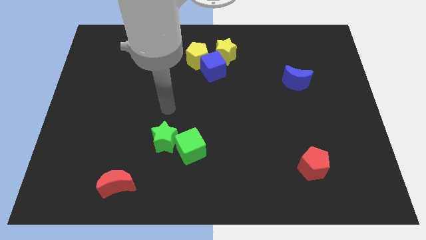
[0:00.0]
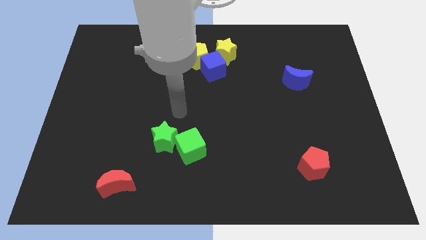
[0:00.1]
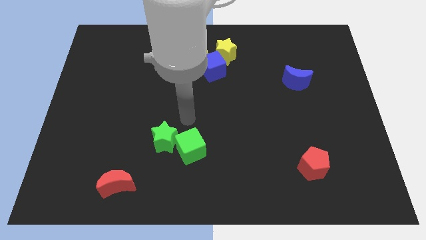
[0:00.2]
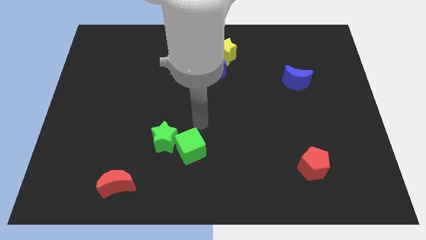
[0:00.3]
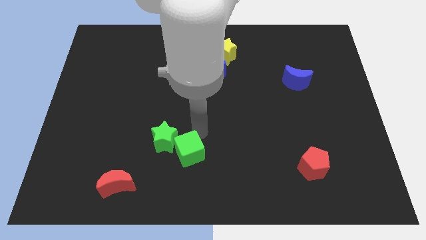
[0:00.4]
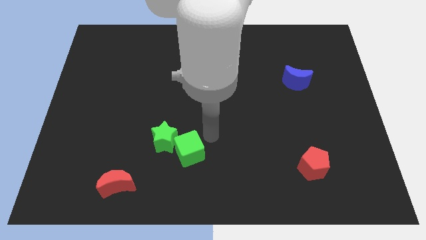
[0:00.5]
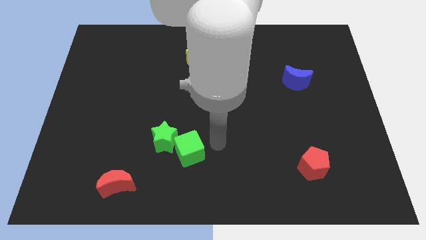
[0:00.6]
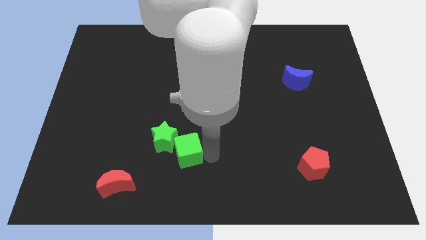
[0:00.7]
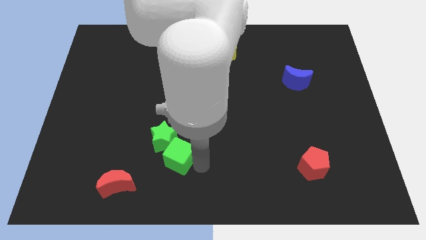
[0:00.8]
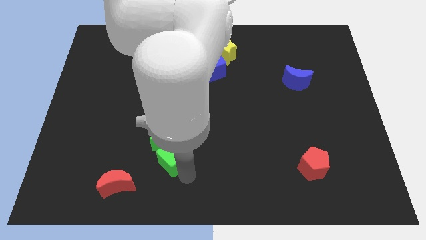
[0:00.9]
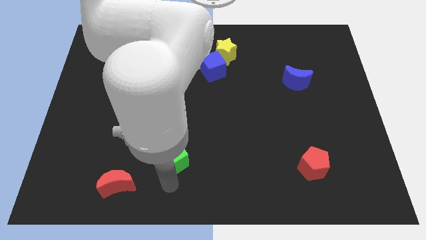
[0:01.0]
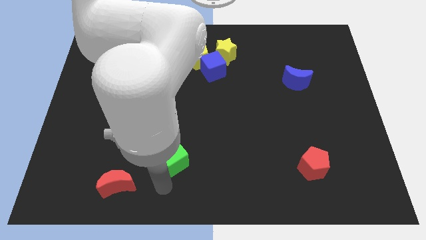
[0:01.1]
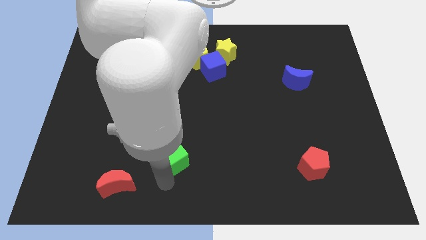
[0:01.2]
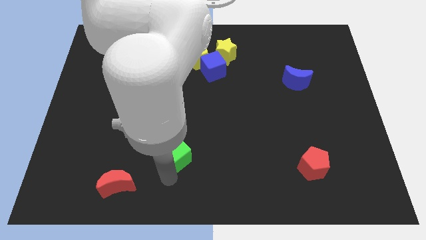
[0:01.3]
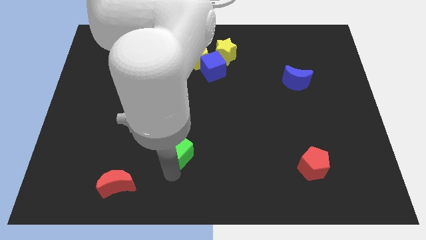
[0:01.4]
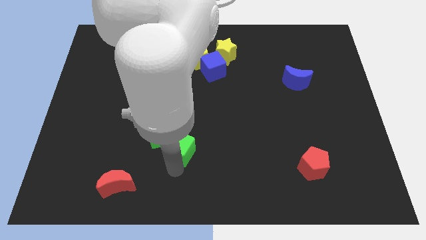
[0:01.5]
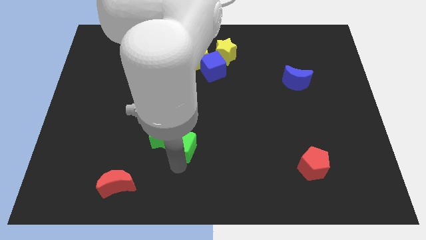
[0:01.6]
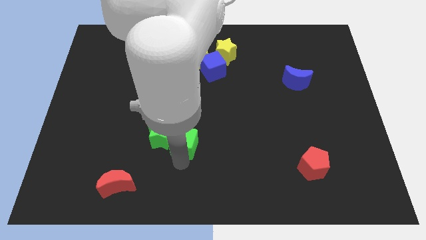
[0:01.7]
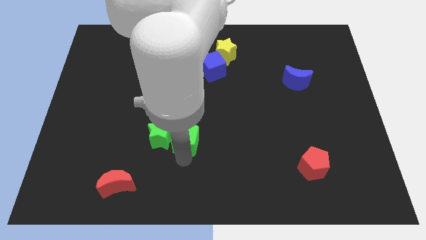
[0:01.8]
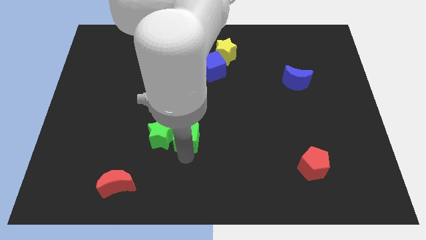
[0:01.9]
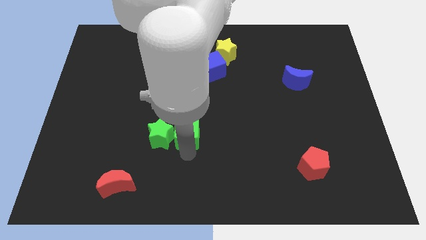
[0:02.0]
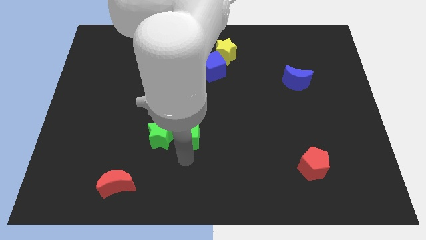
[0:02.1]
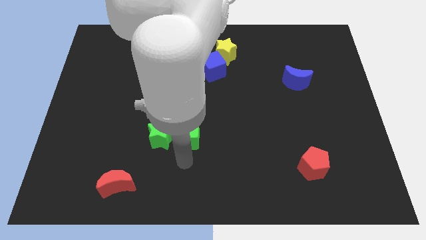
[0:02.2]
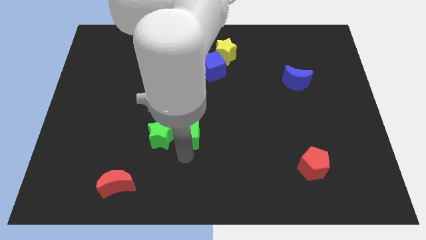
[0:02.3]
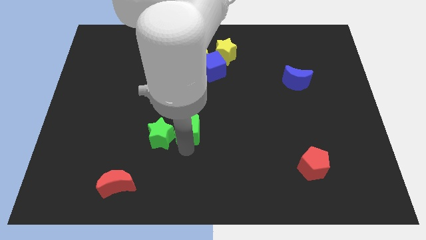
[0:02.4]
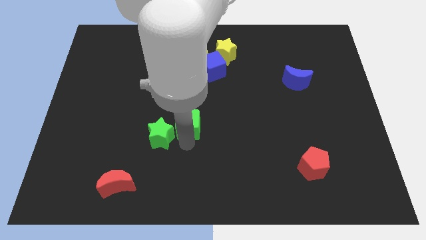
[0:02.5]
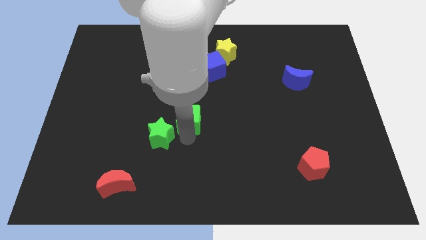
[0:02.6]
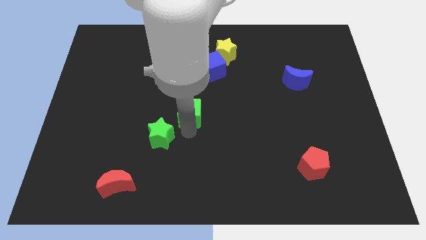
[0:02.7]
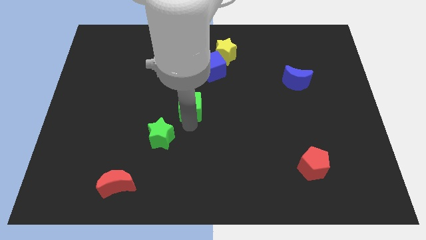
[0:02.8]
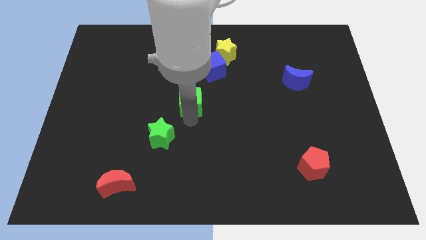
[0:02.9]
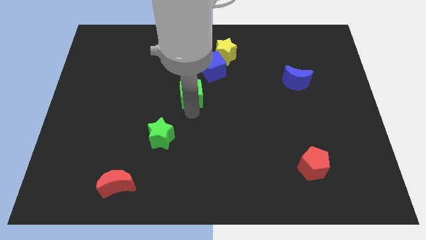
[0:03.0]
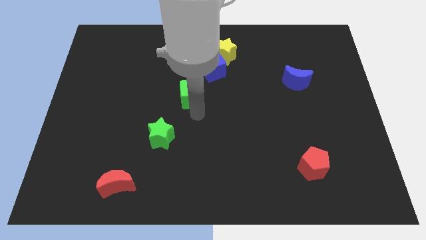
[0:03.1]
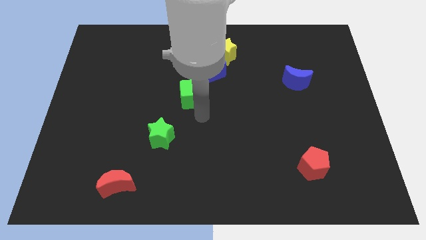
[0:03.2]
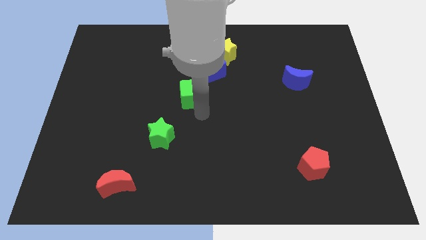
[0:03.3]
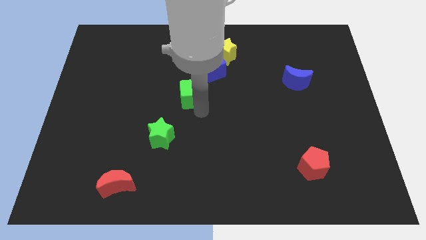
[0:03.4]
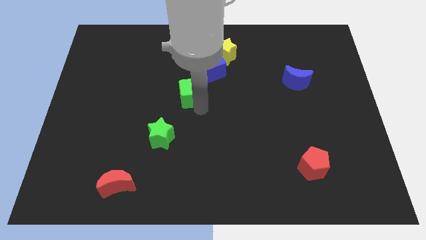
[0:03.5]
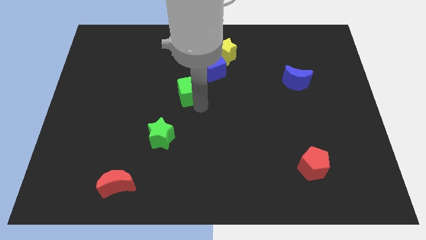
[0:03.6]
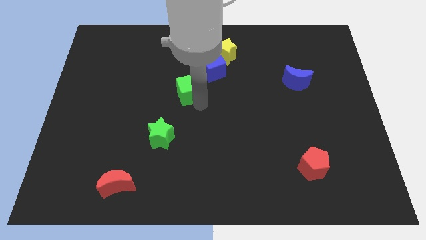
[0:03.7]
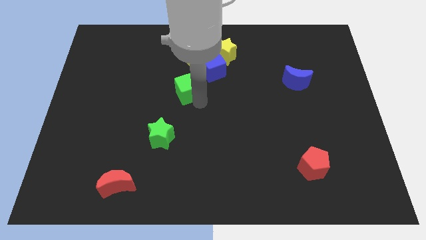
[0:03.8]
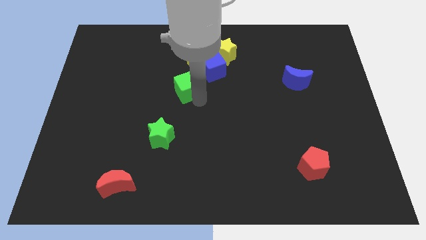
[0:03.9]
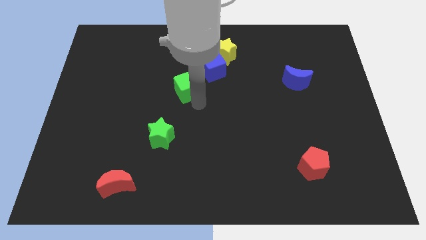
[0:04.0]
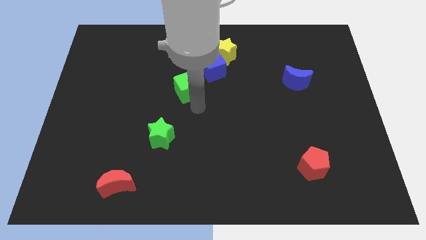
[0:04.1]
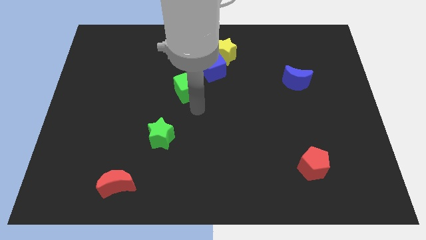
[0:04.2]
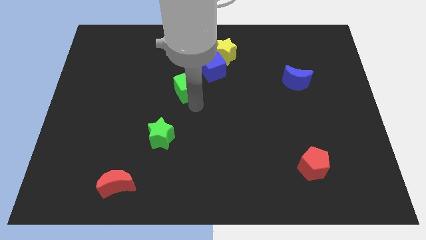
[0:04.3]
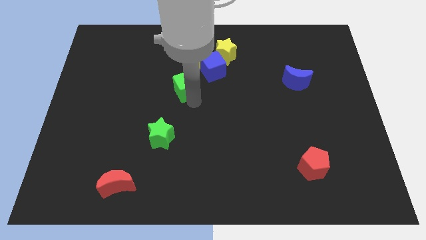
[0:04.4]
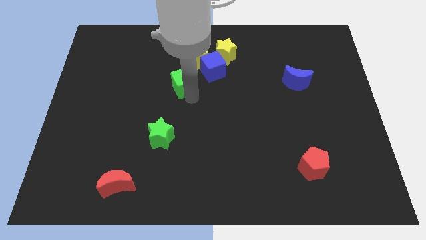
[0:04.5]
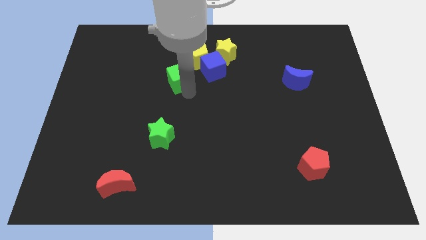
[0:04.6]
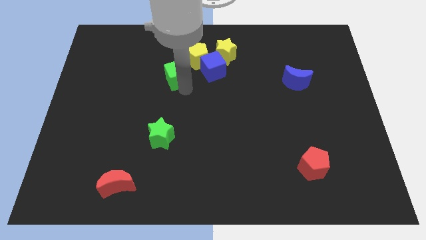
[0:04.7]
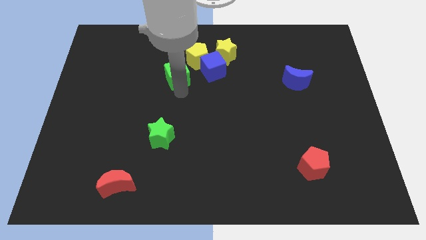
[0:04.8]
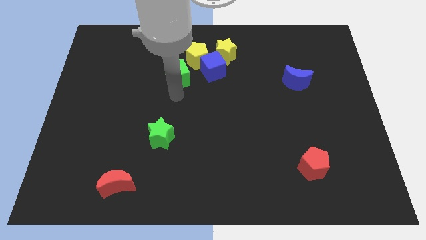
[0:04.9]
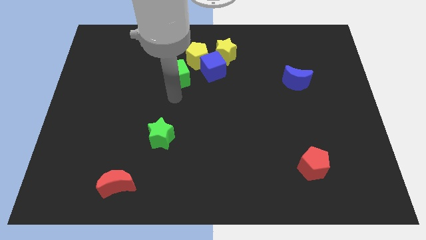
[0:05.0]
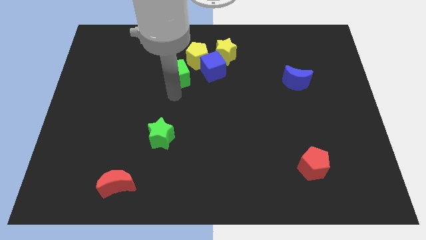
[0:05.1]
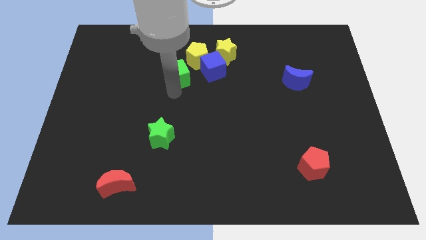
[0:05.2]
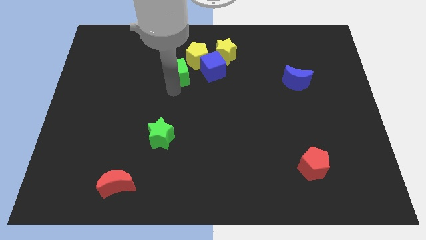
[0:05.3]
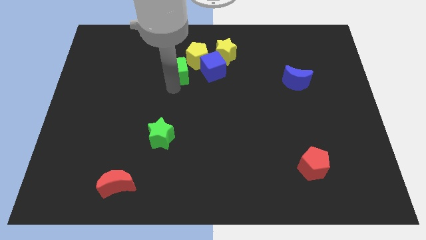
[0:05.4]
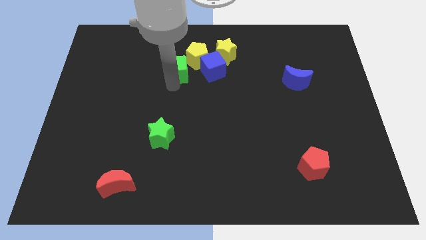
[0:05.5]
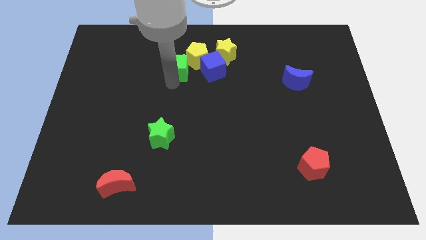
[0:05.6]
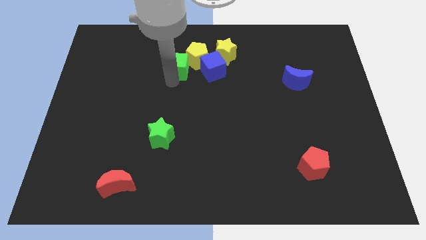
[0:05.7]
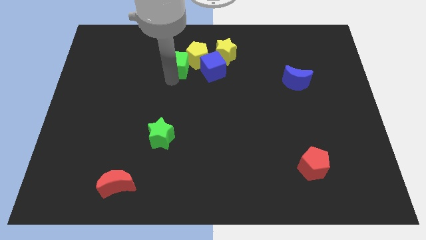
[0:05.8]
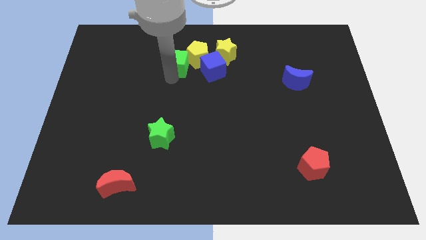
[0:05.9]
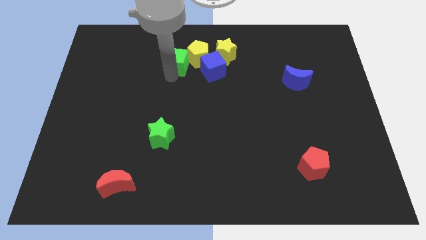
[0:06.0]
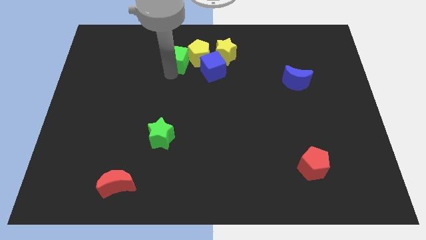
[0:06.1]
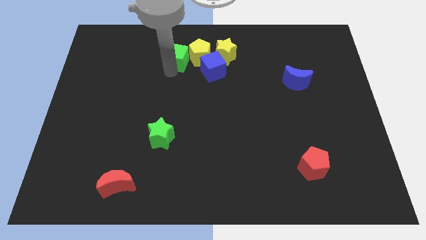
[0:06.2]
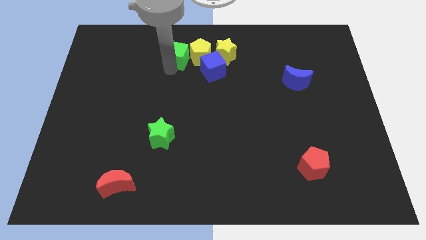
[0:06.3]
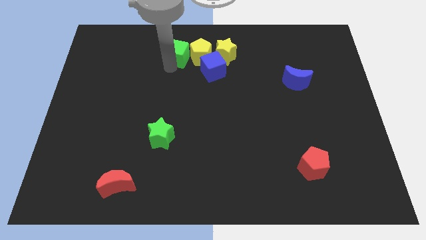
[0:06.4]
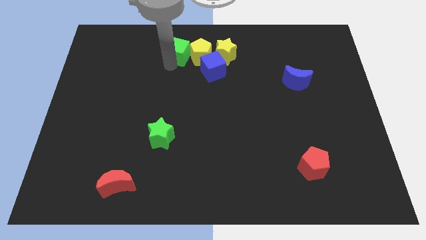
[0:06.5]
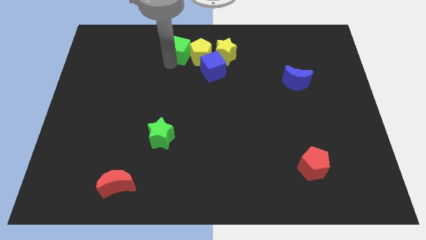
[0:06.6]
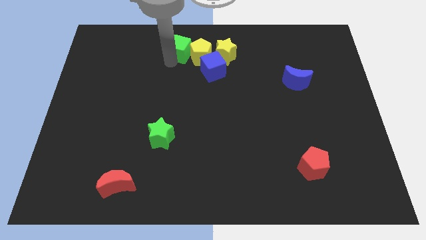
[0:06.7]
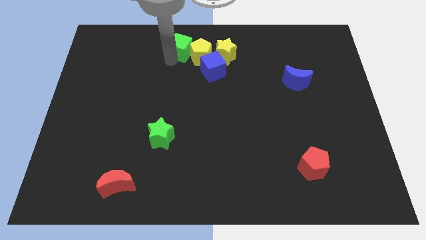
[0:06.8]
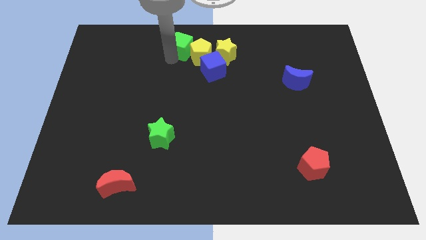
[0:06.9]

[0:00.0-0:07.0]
push the green cube to the towards your base
